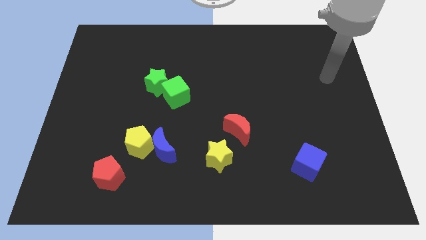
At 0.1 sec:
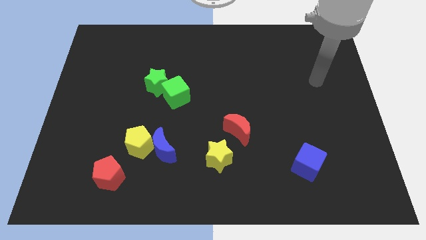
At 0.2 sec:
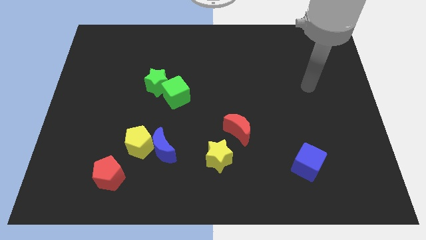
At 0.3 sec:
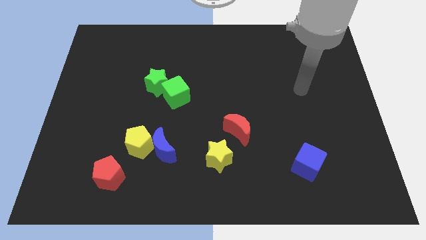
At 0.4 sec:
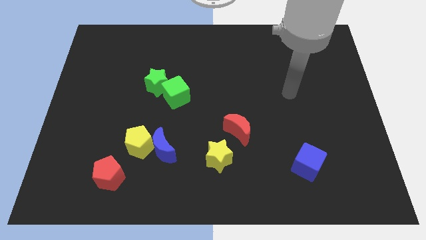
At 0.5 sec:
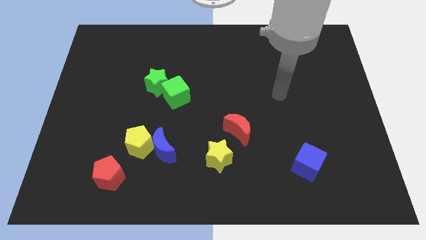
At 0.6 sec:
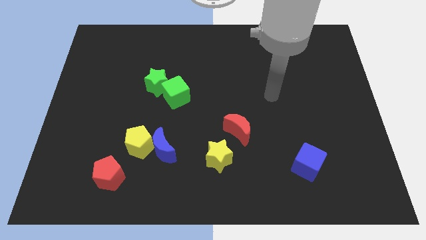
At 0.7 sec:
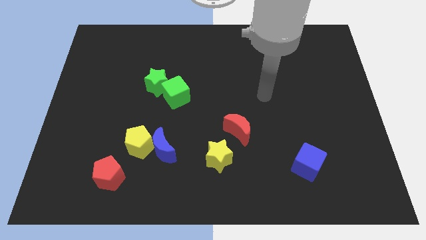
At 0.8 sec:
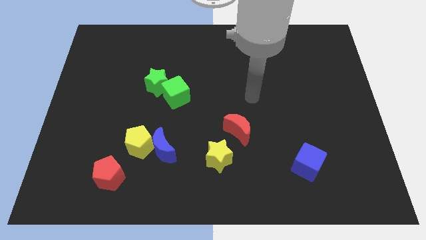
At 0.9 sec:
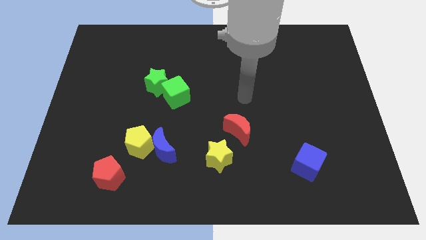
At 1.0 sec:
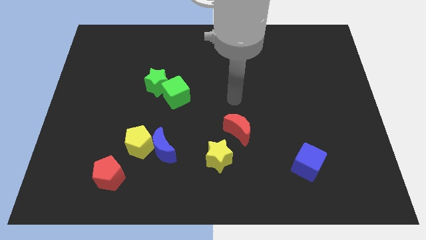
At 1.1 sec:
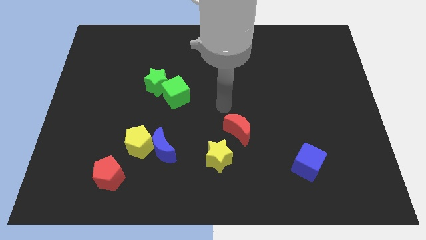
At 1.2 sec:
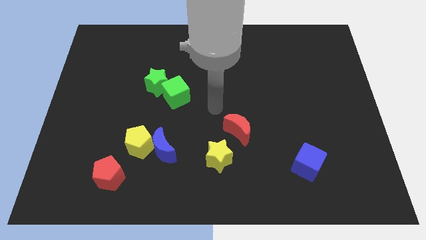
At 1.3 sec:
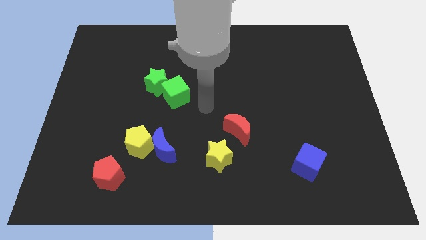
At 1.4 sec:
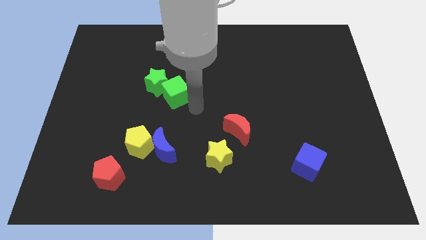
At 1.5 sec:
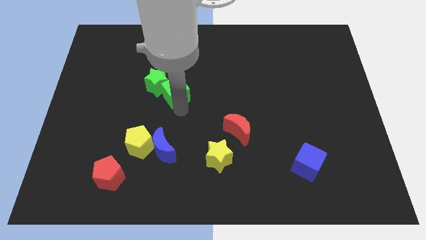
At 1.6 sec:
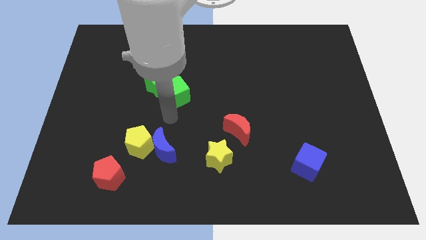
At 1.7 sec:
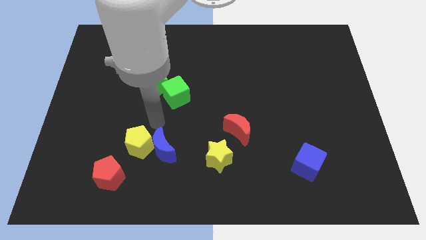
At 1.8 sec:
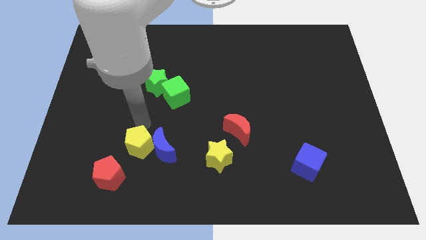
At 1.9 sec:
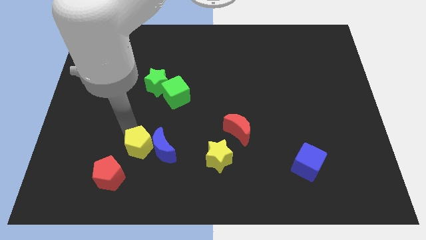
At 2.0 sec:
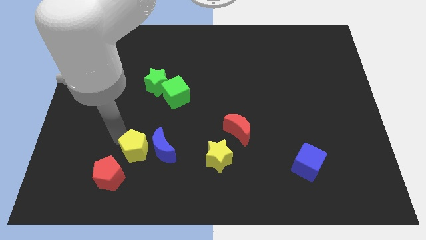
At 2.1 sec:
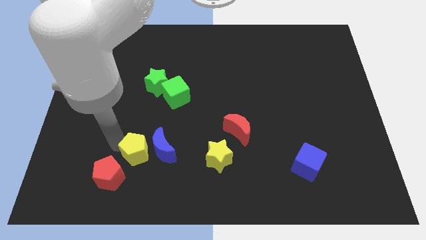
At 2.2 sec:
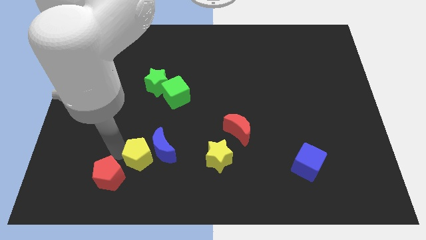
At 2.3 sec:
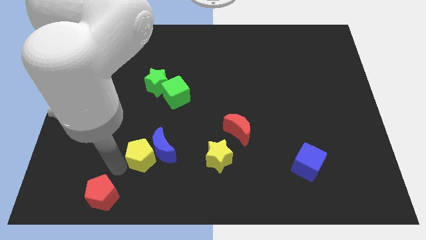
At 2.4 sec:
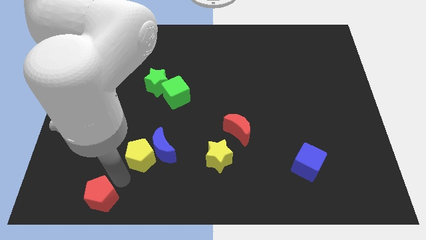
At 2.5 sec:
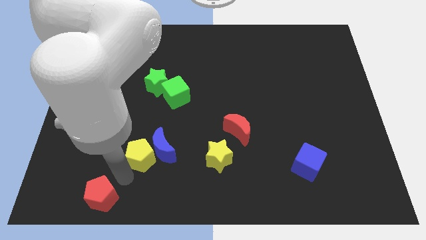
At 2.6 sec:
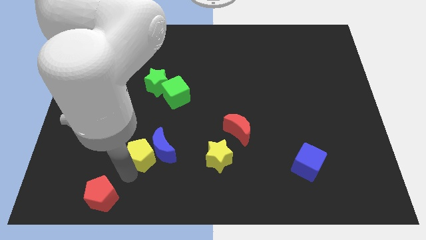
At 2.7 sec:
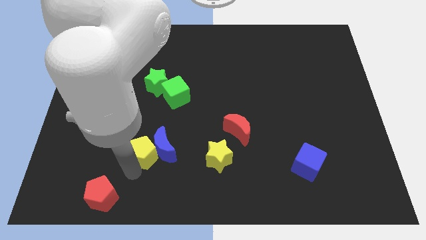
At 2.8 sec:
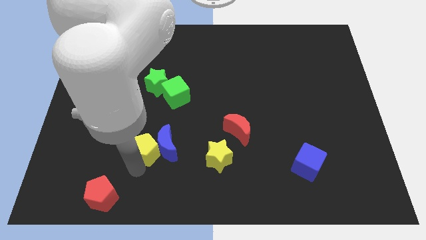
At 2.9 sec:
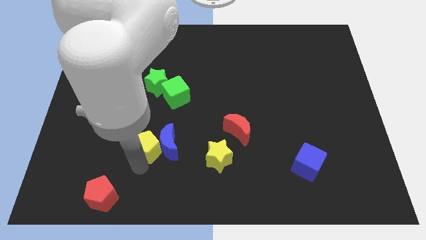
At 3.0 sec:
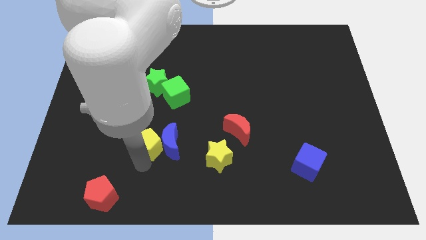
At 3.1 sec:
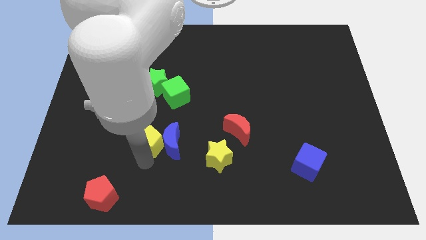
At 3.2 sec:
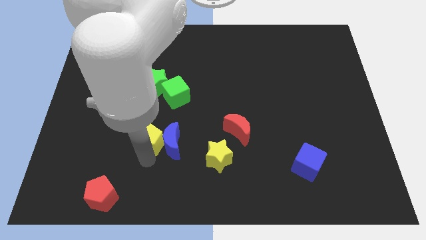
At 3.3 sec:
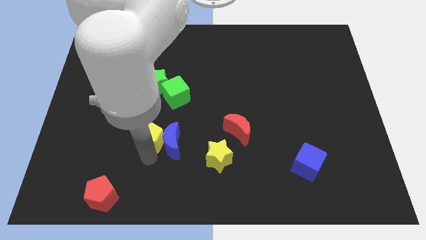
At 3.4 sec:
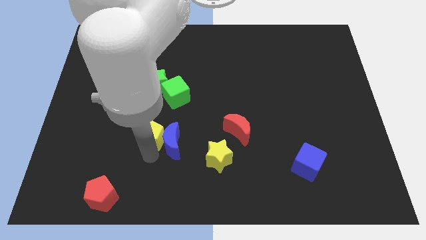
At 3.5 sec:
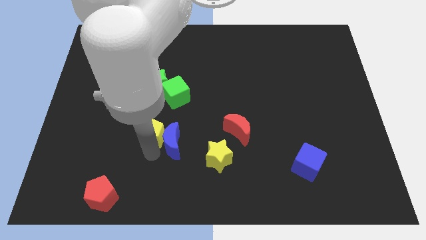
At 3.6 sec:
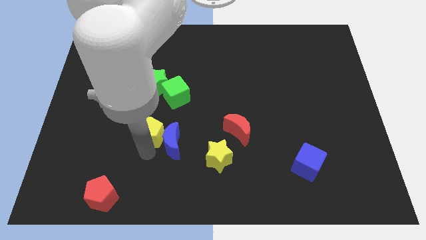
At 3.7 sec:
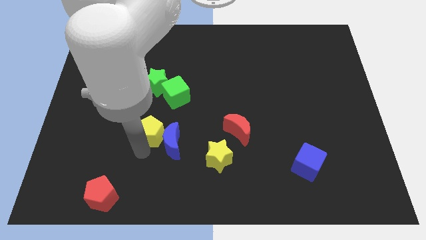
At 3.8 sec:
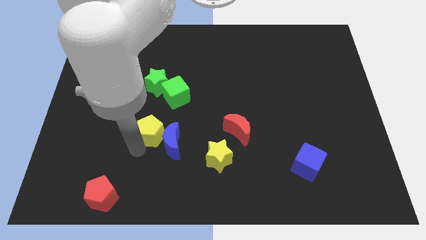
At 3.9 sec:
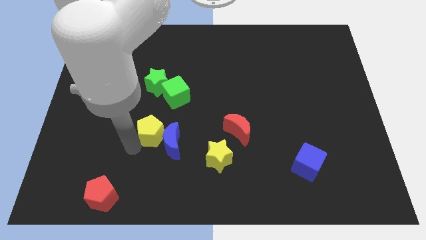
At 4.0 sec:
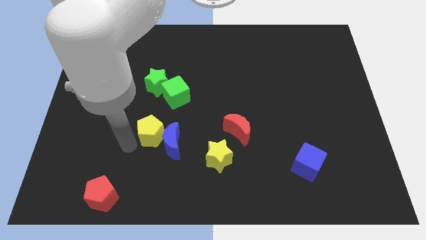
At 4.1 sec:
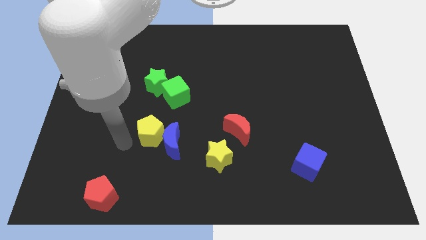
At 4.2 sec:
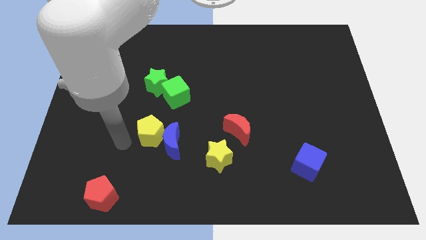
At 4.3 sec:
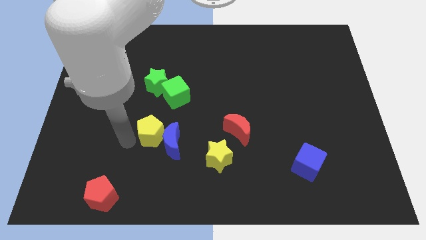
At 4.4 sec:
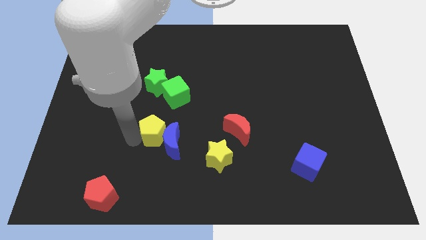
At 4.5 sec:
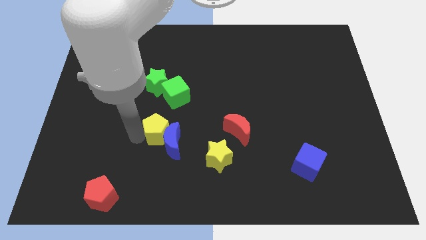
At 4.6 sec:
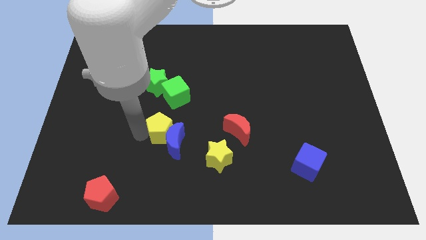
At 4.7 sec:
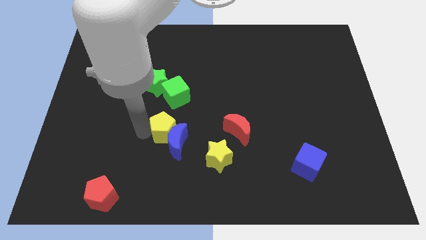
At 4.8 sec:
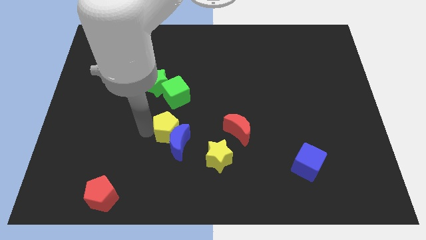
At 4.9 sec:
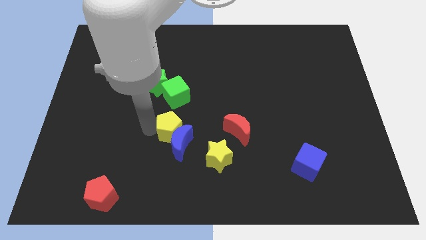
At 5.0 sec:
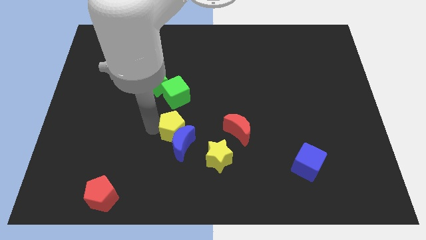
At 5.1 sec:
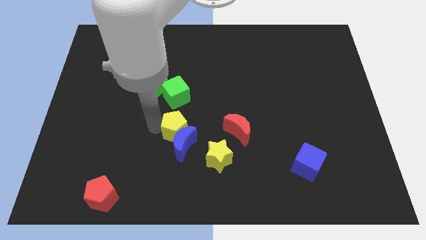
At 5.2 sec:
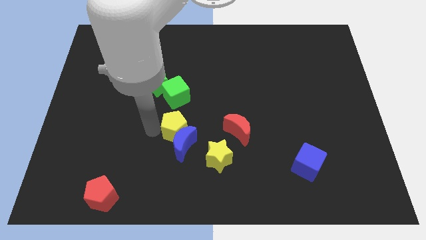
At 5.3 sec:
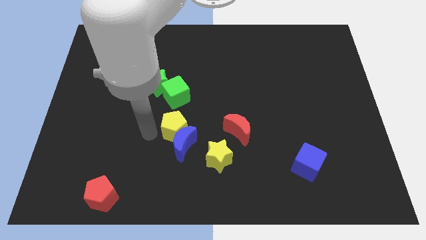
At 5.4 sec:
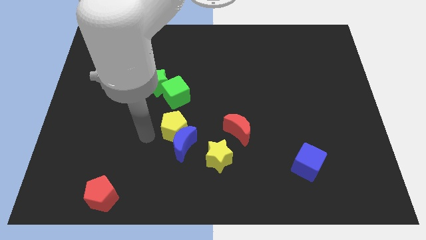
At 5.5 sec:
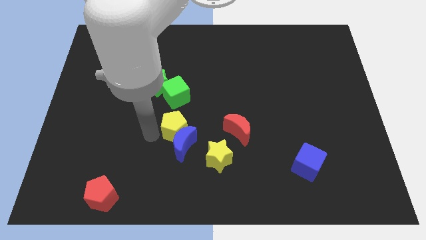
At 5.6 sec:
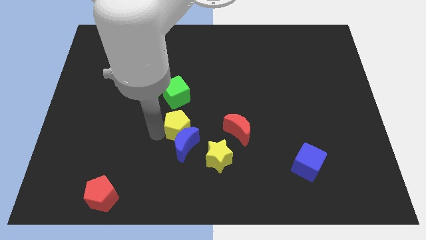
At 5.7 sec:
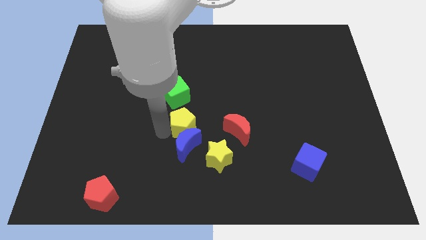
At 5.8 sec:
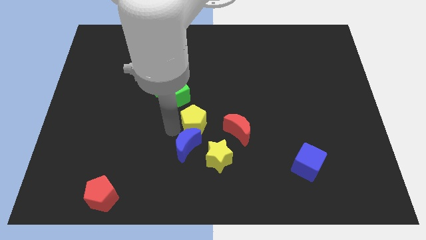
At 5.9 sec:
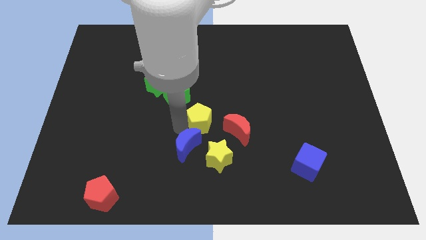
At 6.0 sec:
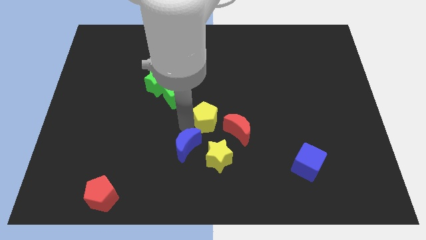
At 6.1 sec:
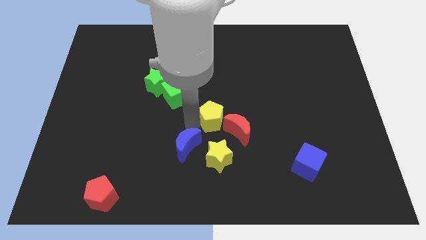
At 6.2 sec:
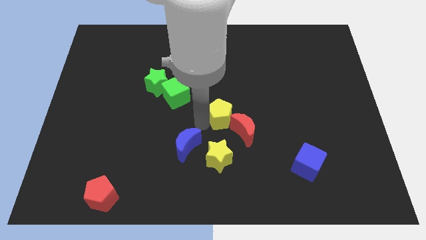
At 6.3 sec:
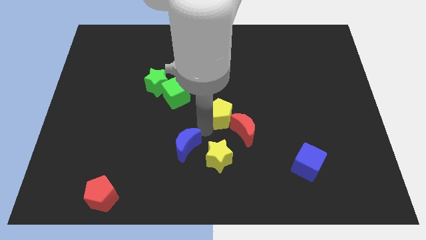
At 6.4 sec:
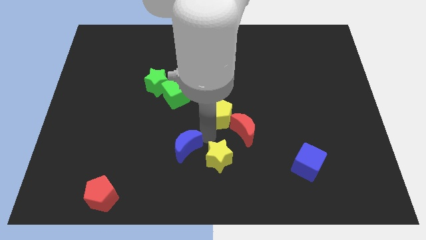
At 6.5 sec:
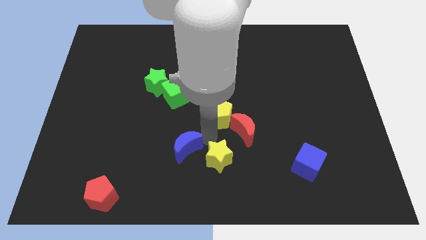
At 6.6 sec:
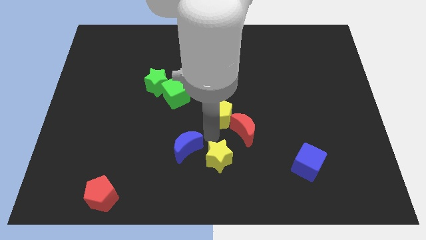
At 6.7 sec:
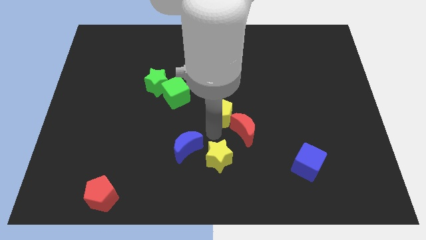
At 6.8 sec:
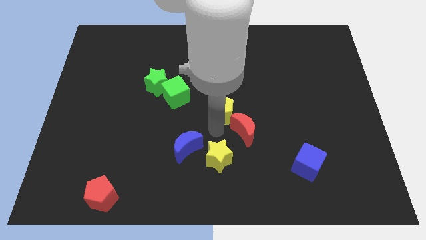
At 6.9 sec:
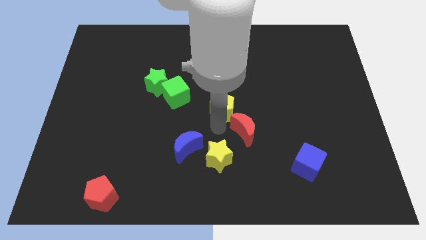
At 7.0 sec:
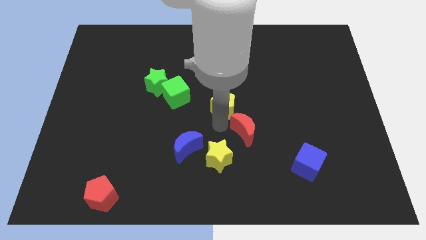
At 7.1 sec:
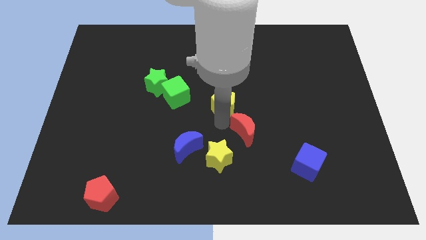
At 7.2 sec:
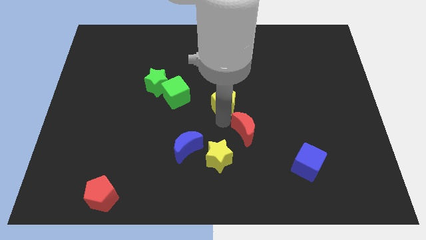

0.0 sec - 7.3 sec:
push the yellow pentagon diagonally upwards and to the right

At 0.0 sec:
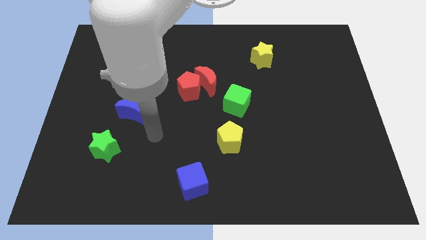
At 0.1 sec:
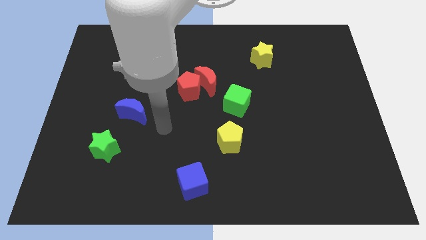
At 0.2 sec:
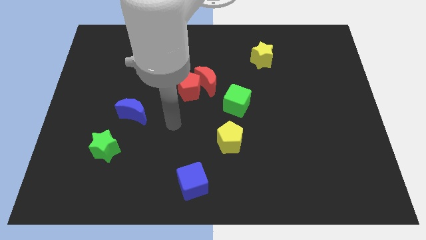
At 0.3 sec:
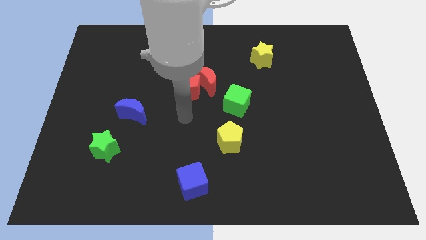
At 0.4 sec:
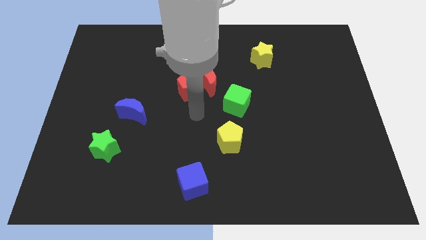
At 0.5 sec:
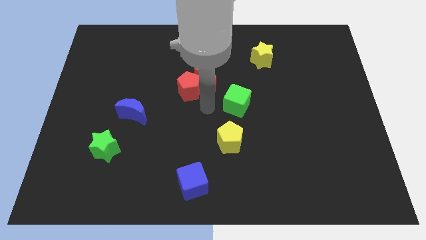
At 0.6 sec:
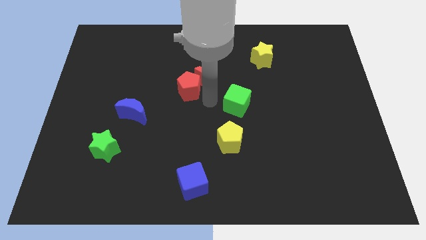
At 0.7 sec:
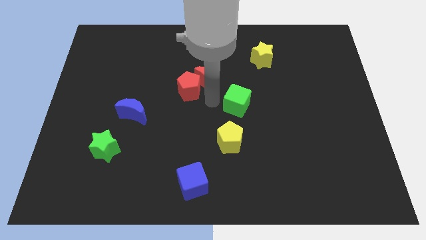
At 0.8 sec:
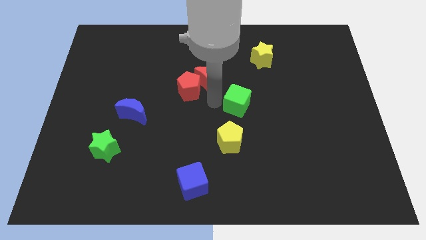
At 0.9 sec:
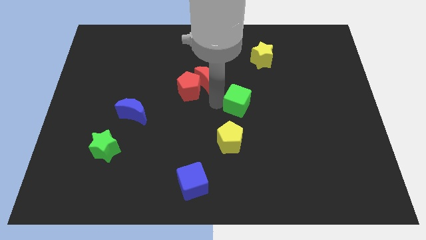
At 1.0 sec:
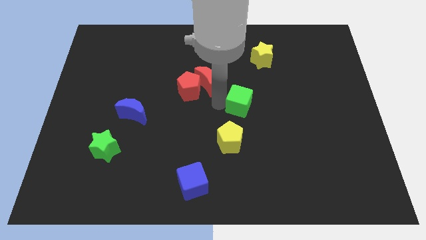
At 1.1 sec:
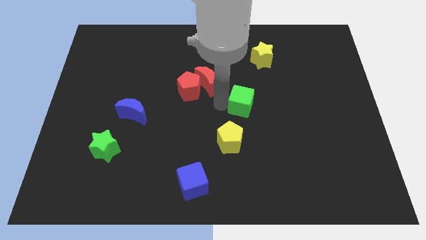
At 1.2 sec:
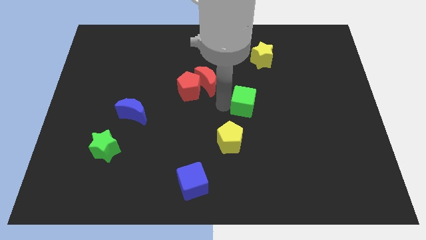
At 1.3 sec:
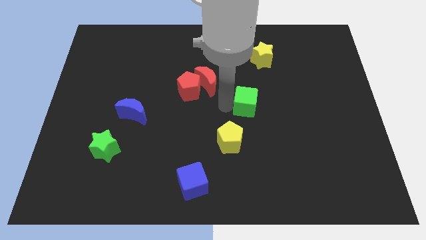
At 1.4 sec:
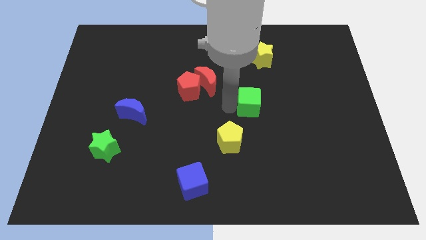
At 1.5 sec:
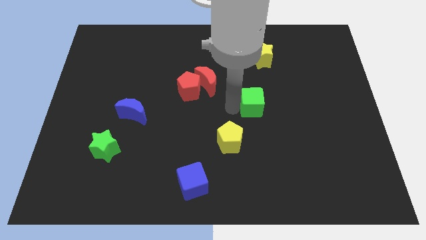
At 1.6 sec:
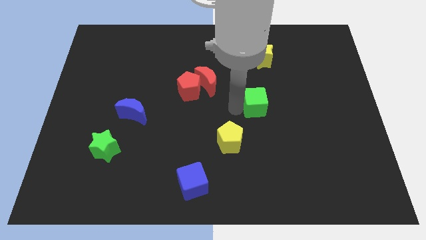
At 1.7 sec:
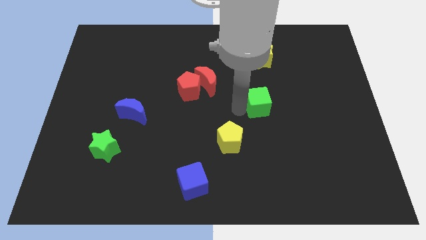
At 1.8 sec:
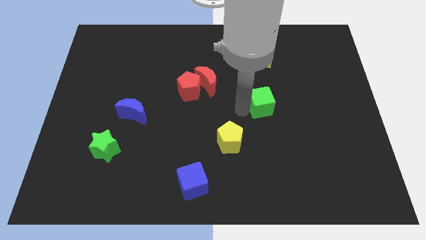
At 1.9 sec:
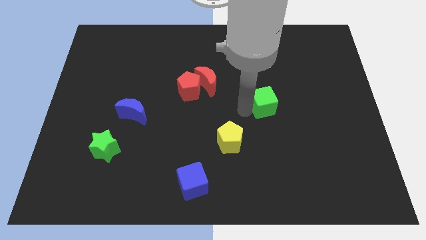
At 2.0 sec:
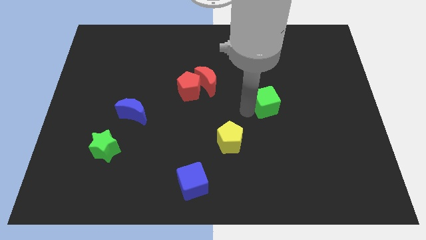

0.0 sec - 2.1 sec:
push the green cube right a little
